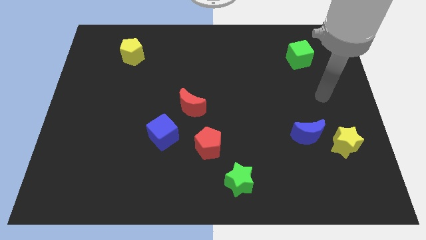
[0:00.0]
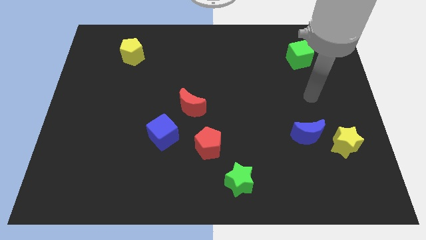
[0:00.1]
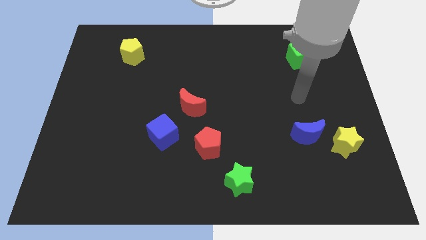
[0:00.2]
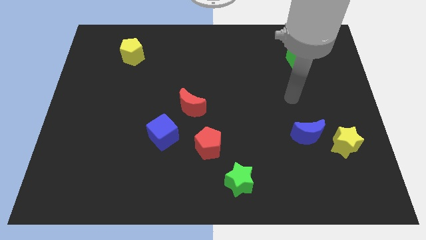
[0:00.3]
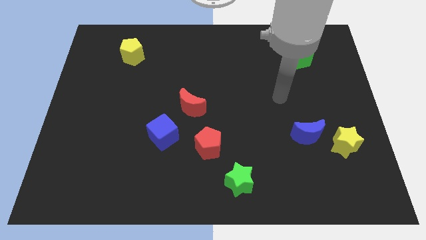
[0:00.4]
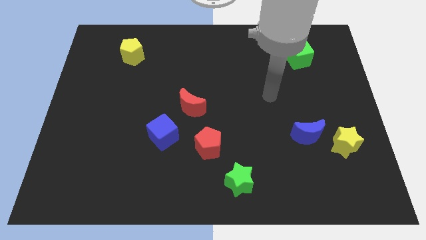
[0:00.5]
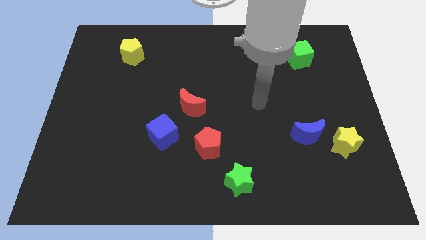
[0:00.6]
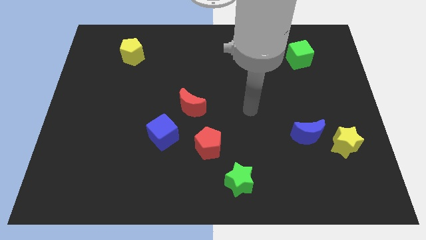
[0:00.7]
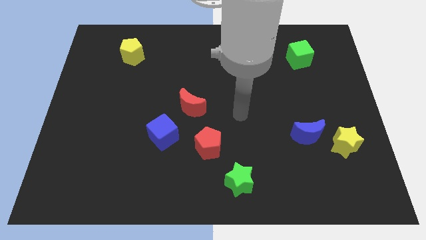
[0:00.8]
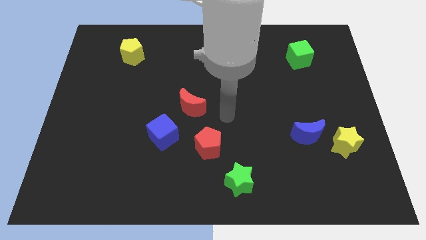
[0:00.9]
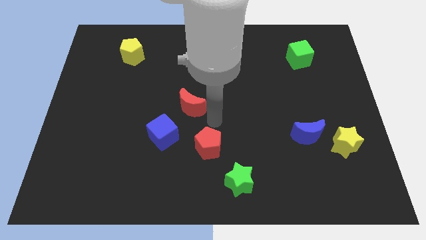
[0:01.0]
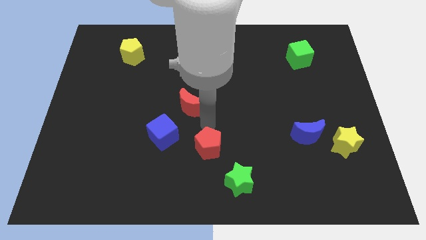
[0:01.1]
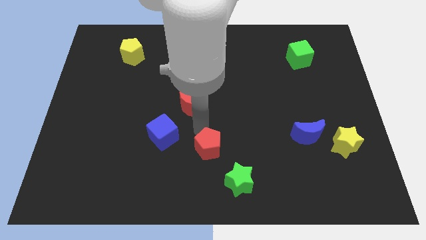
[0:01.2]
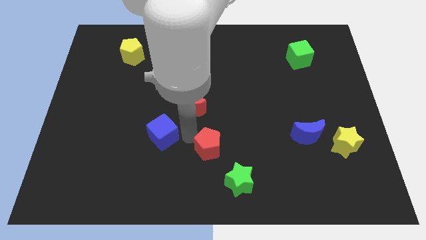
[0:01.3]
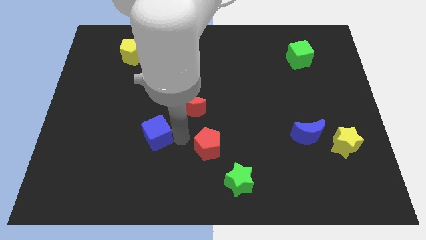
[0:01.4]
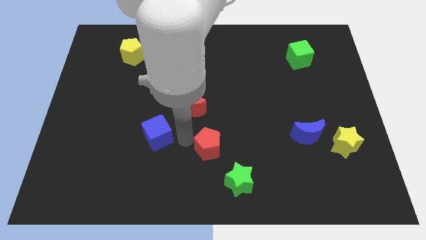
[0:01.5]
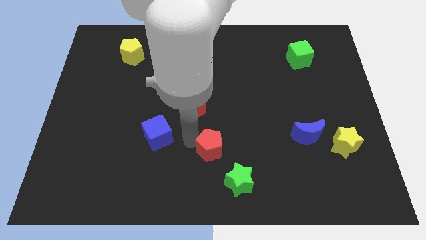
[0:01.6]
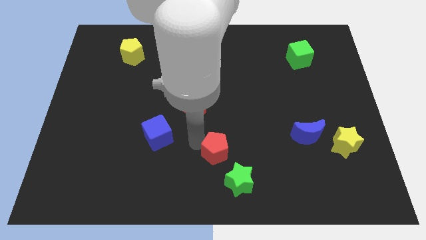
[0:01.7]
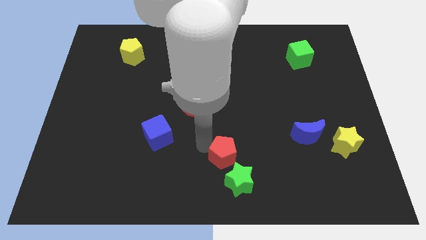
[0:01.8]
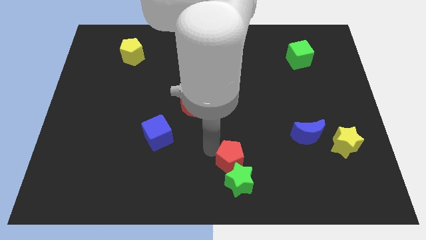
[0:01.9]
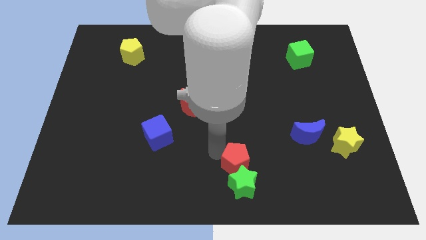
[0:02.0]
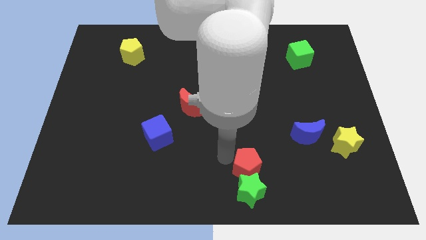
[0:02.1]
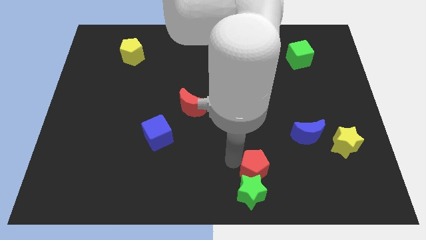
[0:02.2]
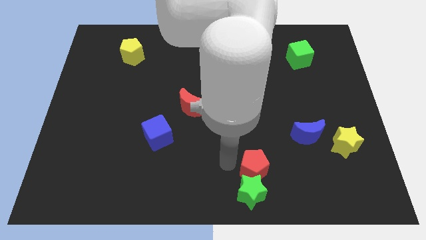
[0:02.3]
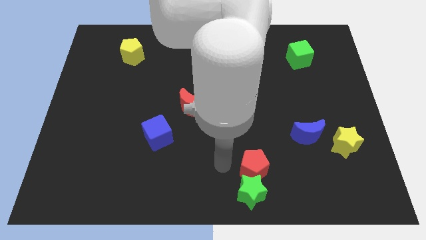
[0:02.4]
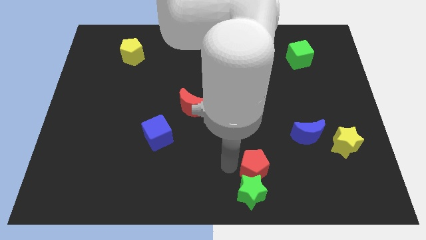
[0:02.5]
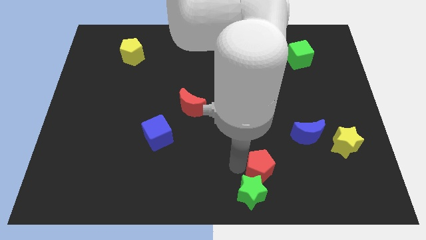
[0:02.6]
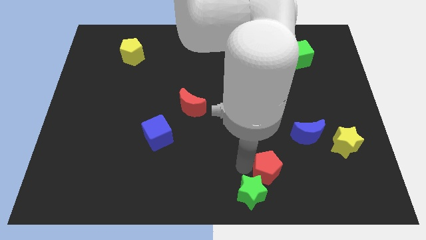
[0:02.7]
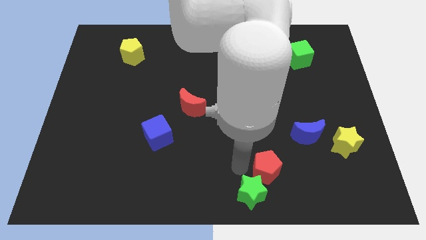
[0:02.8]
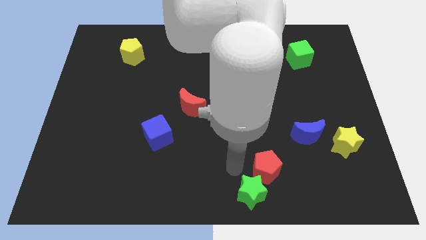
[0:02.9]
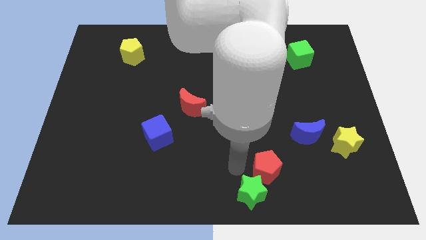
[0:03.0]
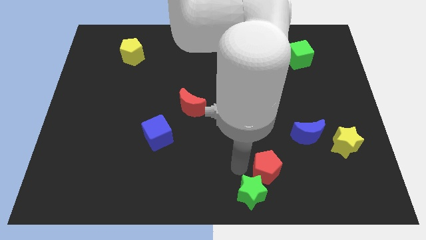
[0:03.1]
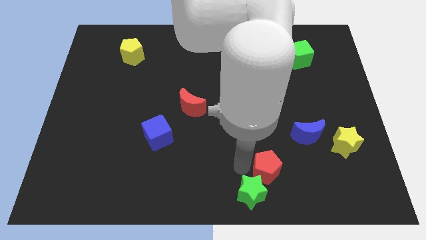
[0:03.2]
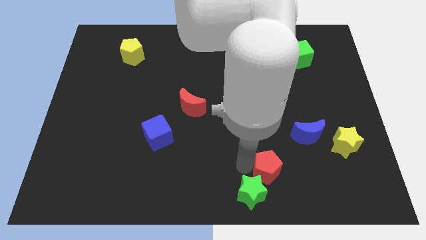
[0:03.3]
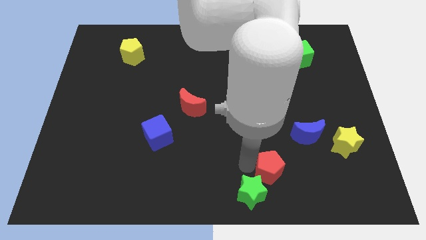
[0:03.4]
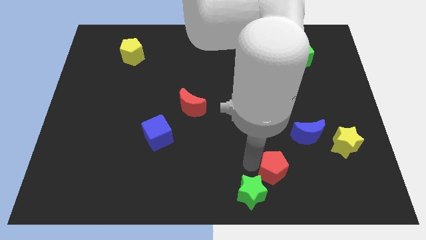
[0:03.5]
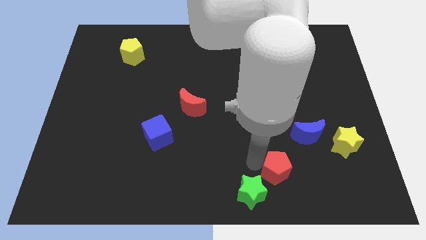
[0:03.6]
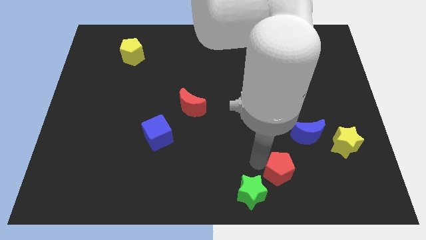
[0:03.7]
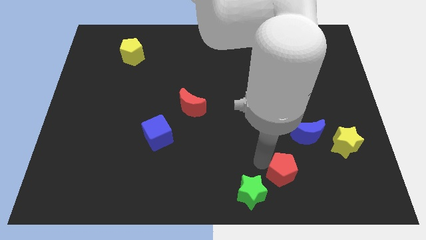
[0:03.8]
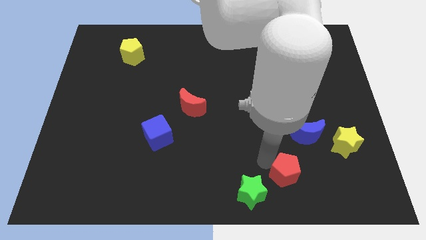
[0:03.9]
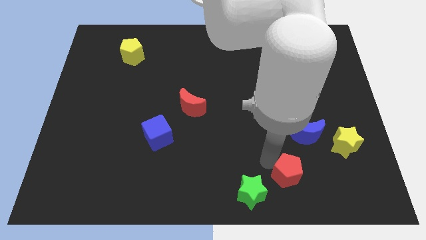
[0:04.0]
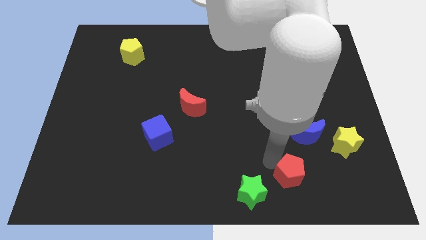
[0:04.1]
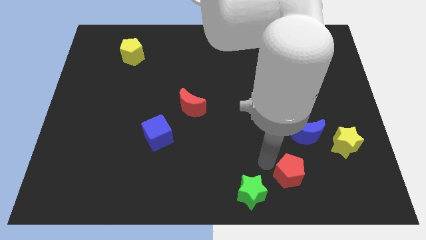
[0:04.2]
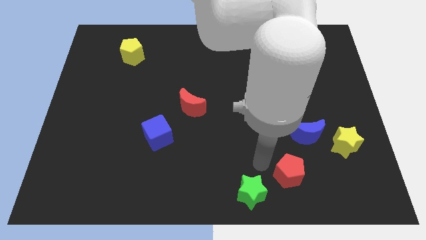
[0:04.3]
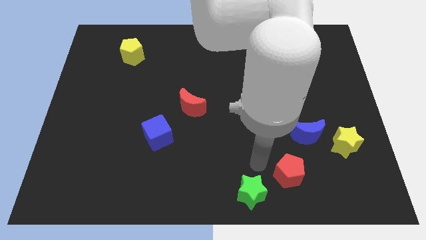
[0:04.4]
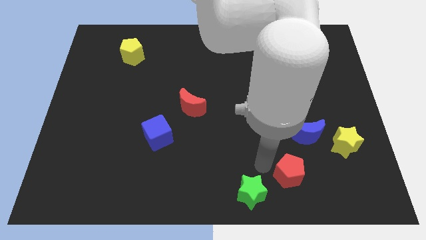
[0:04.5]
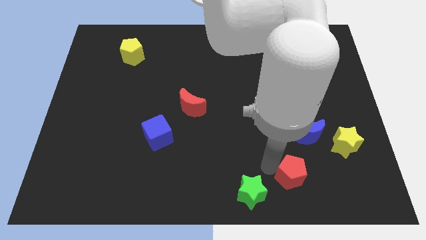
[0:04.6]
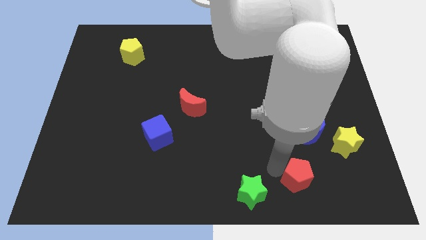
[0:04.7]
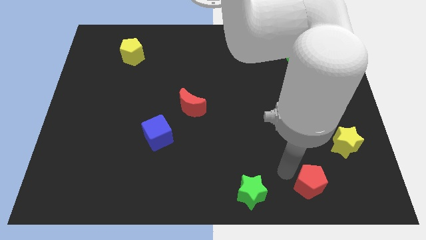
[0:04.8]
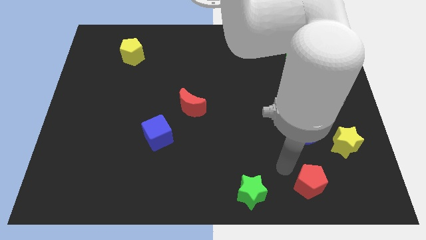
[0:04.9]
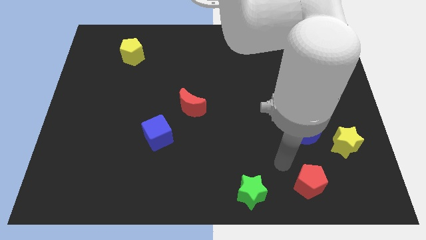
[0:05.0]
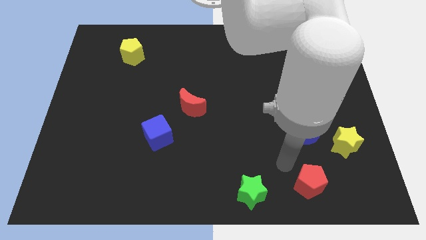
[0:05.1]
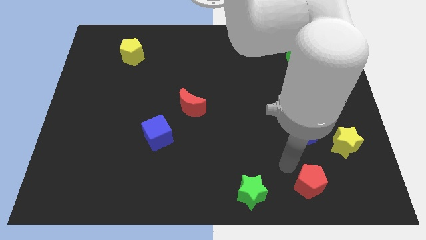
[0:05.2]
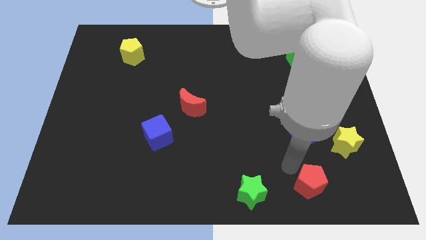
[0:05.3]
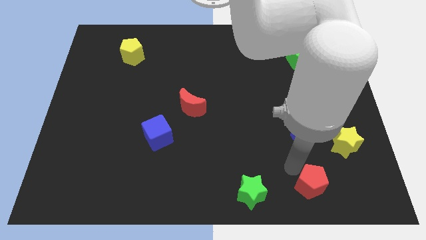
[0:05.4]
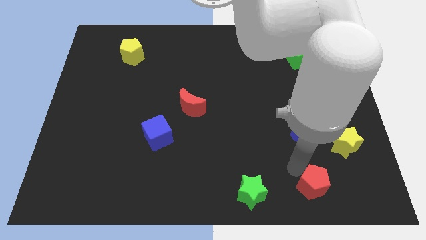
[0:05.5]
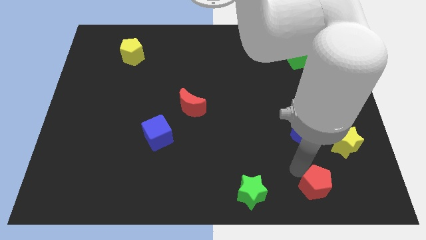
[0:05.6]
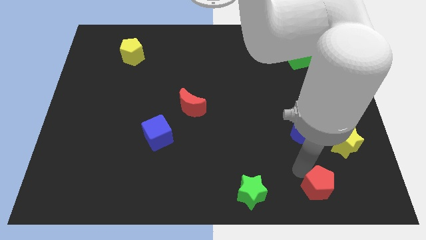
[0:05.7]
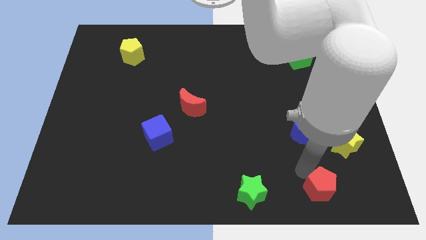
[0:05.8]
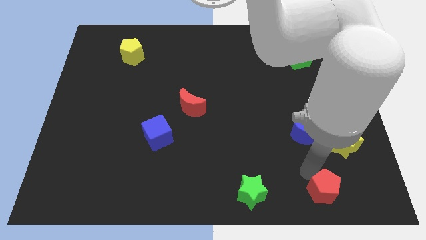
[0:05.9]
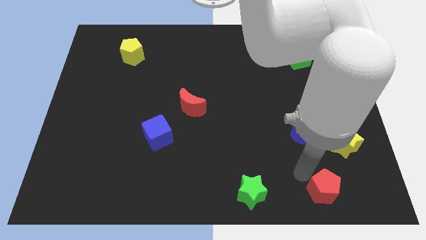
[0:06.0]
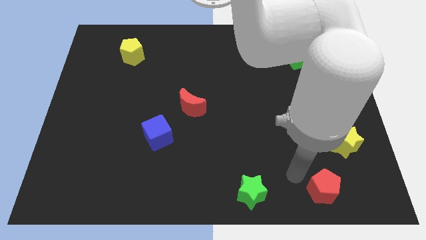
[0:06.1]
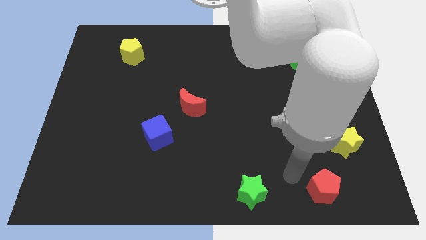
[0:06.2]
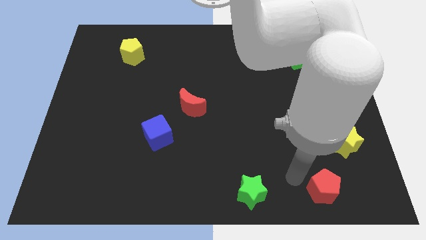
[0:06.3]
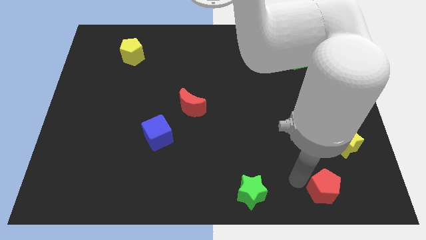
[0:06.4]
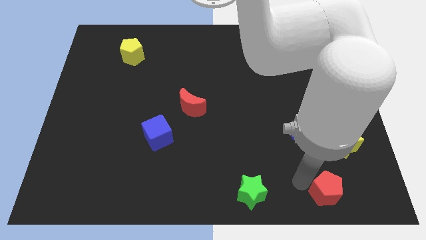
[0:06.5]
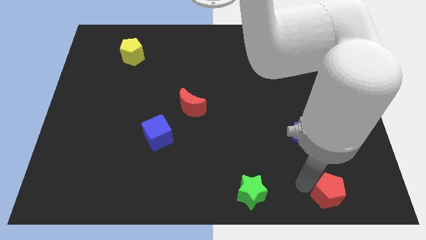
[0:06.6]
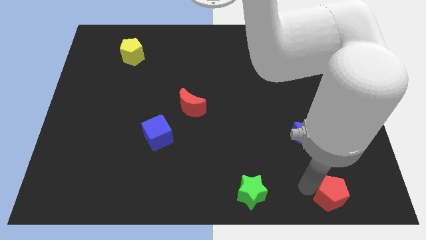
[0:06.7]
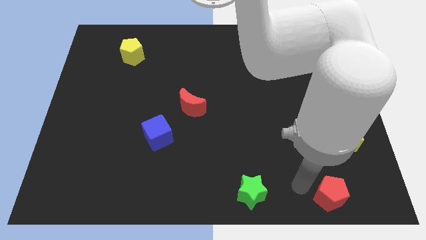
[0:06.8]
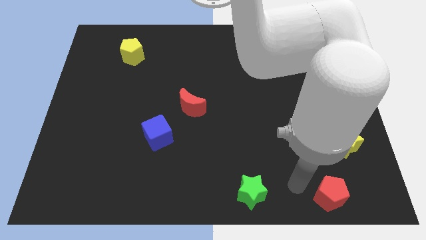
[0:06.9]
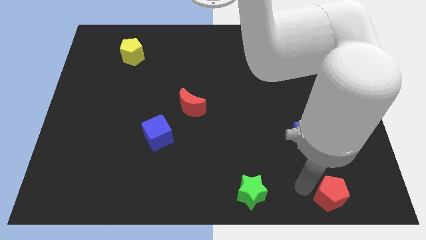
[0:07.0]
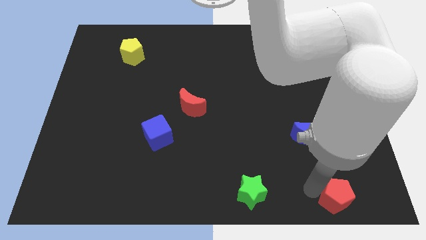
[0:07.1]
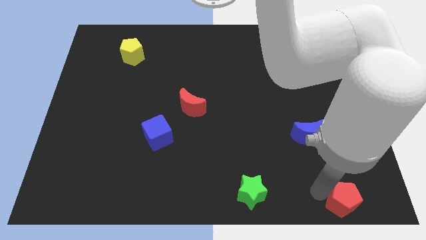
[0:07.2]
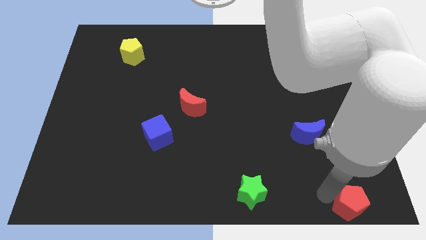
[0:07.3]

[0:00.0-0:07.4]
slide the red pentagon to the bottom right corner
